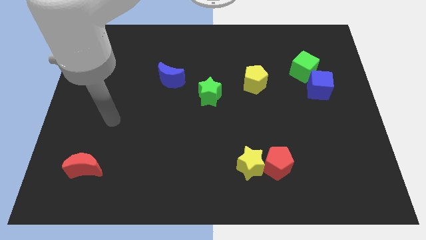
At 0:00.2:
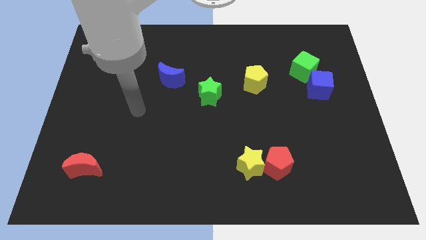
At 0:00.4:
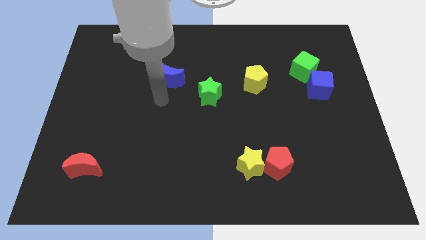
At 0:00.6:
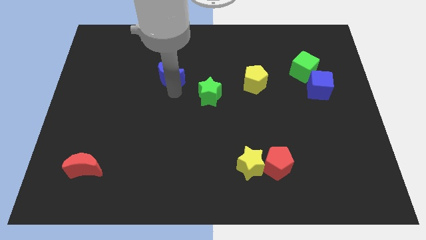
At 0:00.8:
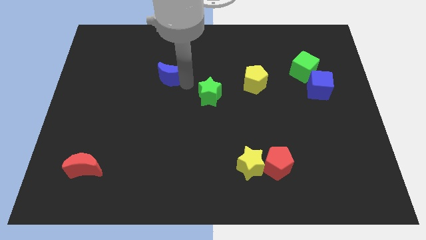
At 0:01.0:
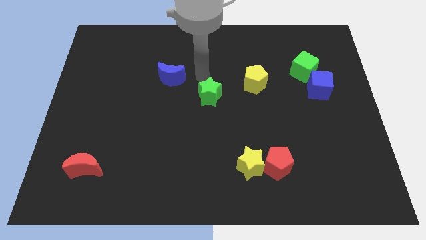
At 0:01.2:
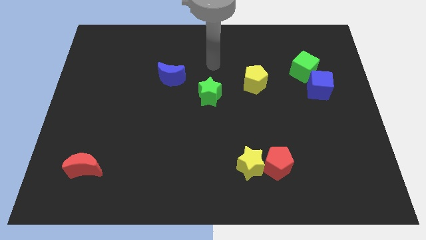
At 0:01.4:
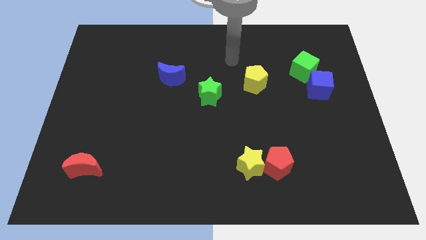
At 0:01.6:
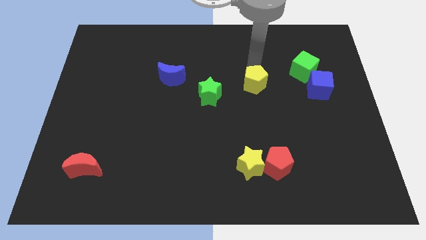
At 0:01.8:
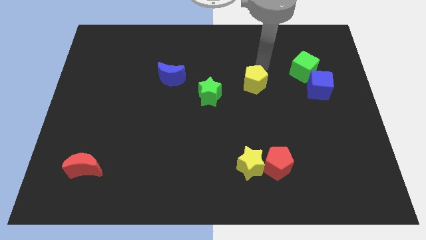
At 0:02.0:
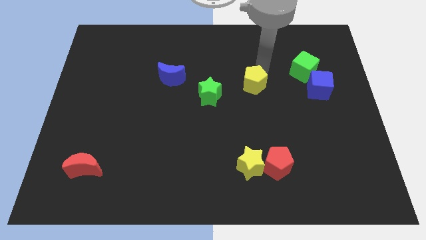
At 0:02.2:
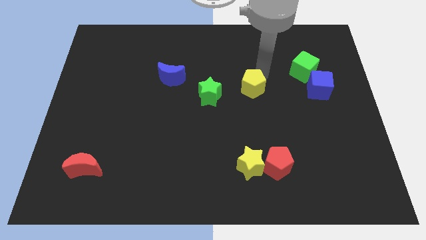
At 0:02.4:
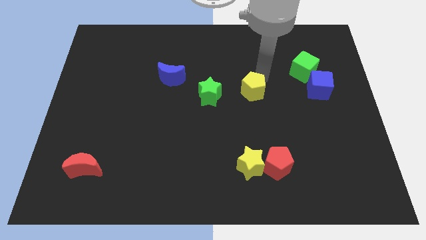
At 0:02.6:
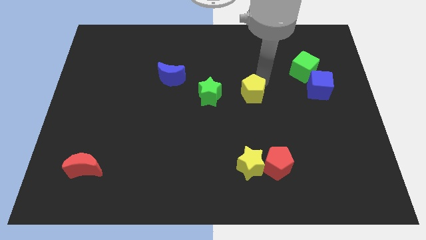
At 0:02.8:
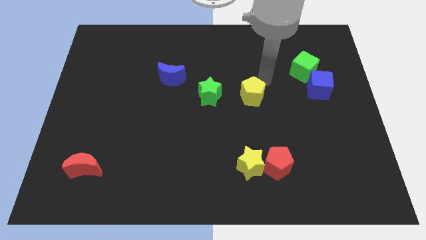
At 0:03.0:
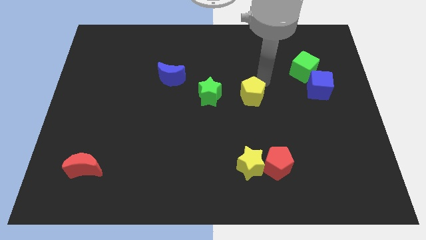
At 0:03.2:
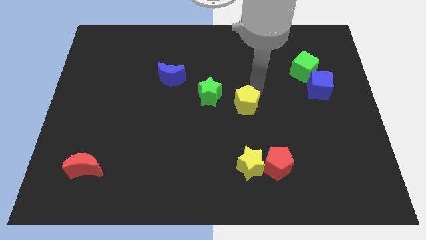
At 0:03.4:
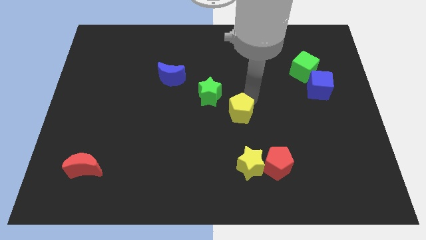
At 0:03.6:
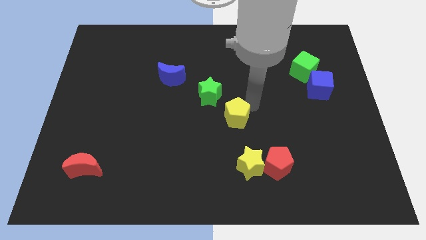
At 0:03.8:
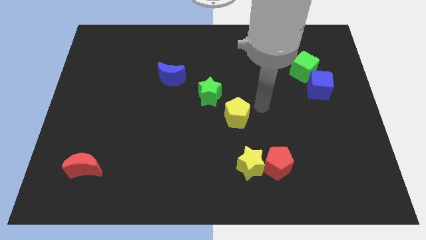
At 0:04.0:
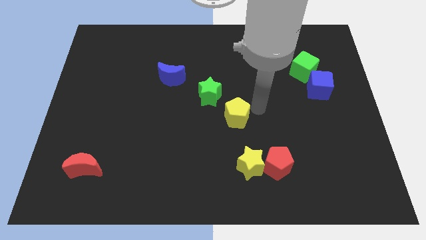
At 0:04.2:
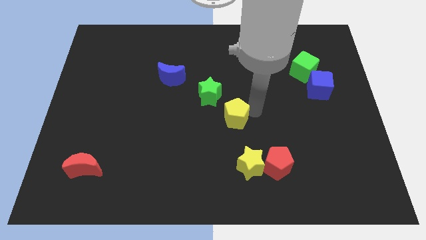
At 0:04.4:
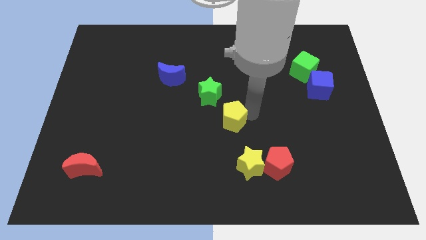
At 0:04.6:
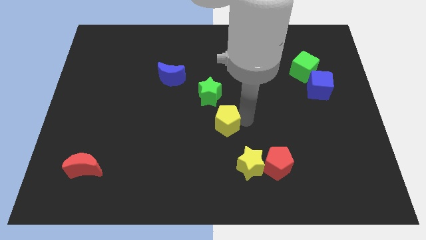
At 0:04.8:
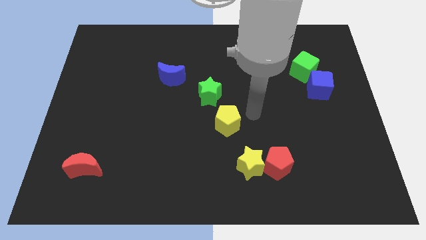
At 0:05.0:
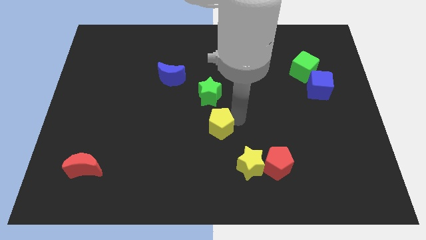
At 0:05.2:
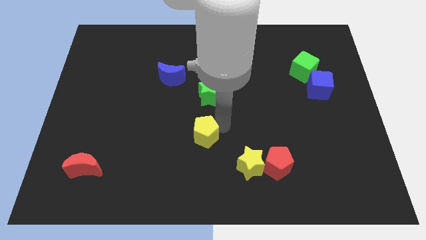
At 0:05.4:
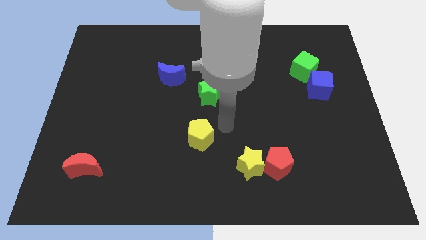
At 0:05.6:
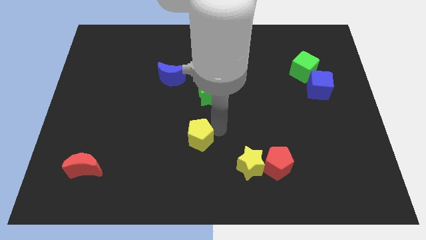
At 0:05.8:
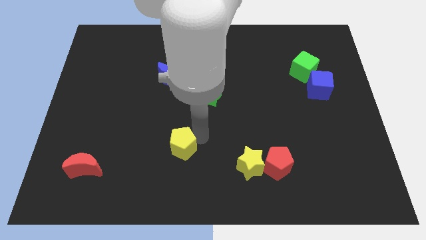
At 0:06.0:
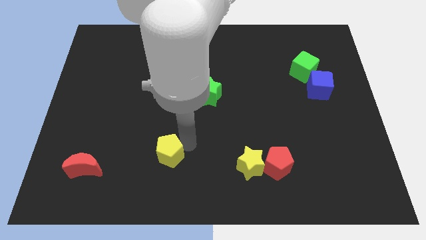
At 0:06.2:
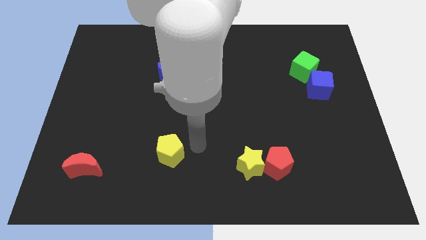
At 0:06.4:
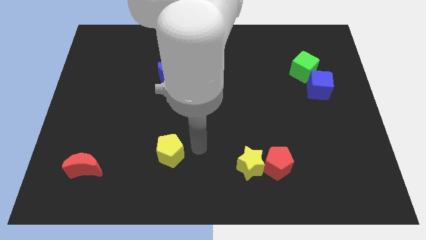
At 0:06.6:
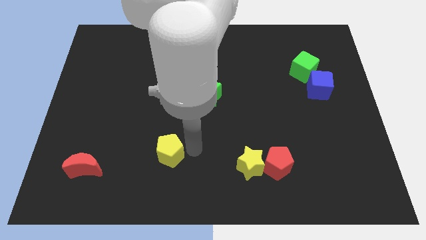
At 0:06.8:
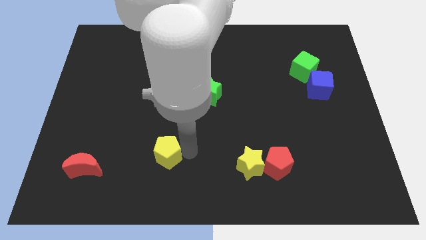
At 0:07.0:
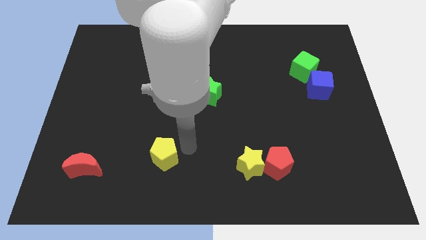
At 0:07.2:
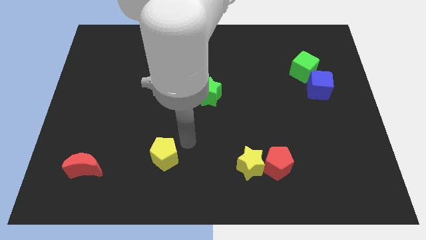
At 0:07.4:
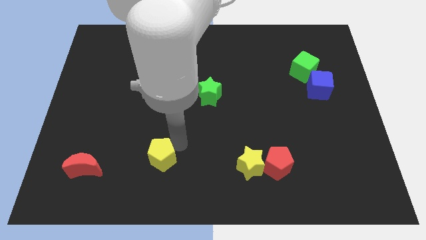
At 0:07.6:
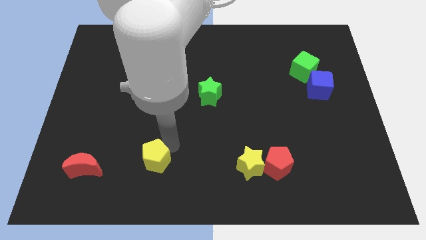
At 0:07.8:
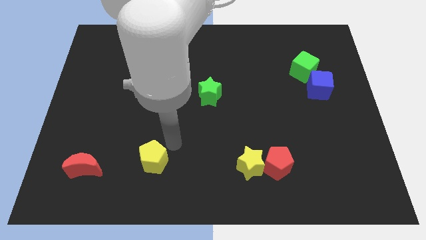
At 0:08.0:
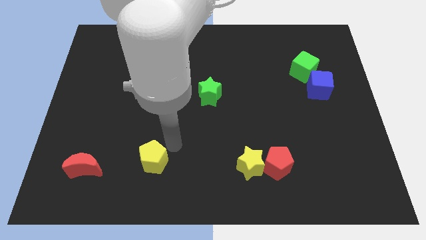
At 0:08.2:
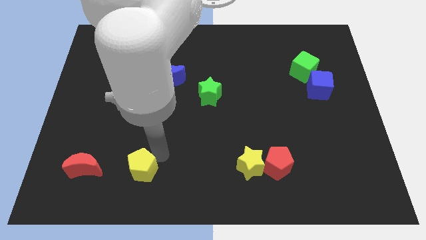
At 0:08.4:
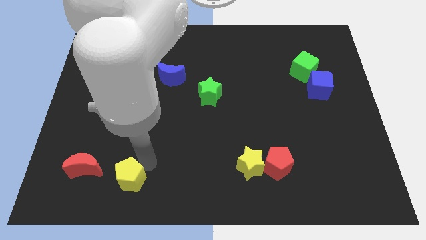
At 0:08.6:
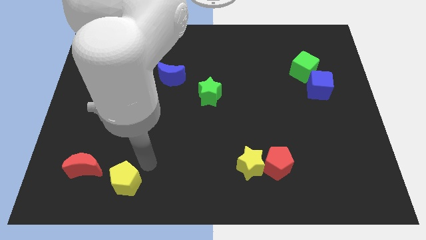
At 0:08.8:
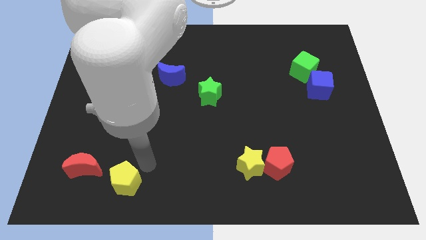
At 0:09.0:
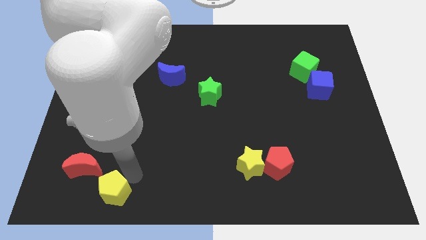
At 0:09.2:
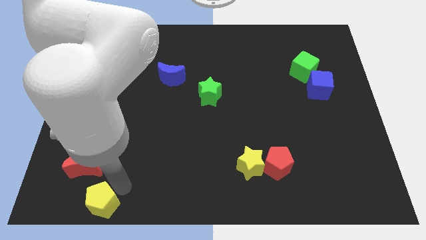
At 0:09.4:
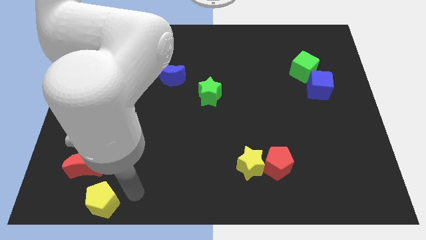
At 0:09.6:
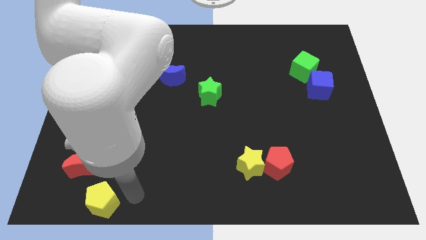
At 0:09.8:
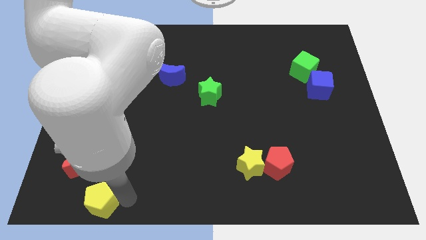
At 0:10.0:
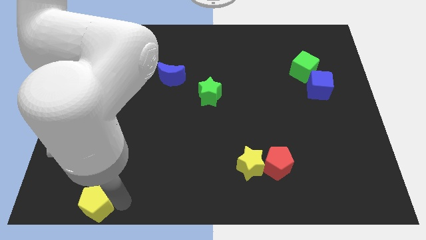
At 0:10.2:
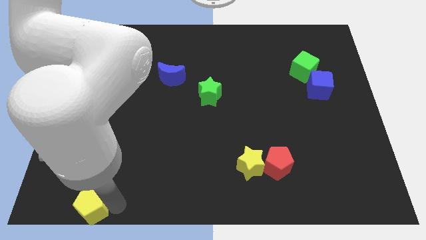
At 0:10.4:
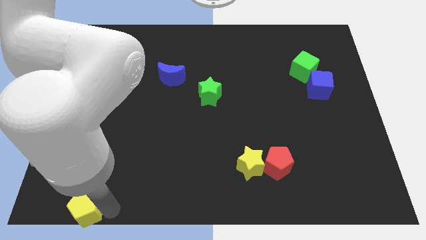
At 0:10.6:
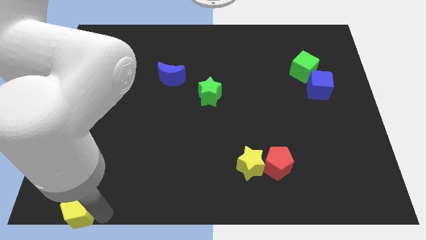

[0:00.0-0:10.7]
slide the yellow pentagon to the bottom left corner

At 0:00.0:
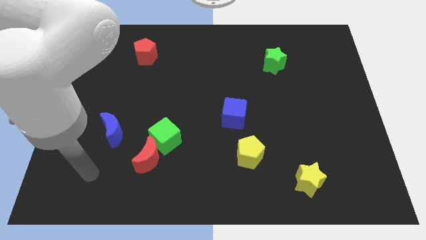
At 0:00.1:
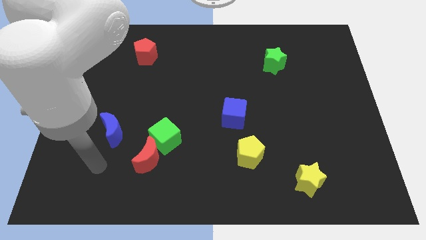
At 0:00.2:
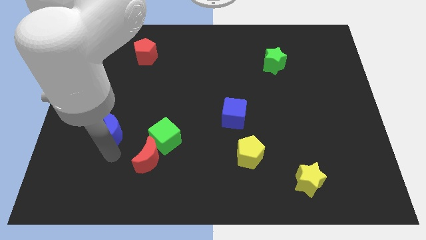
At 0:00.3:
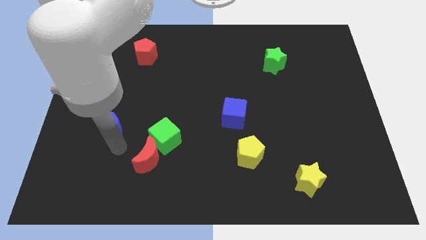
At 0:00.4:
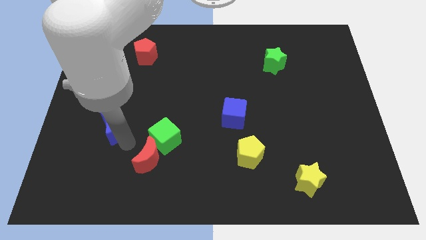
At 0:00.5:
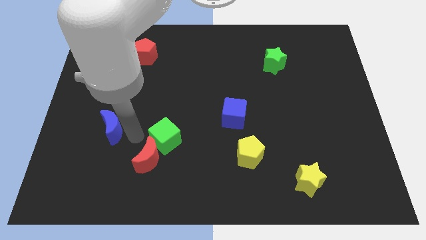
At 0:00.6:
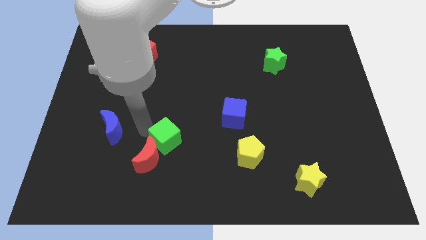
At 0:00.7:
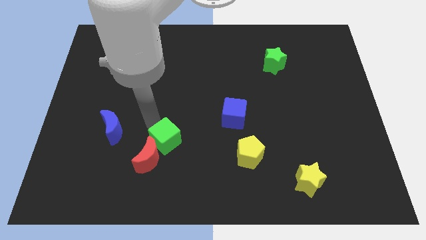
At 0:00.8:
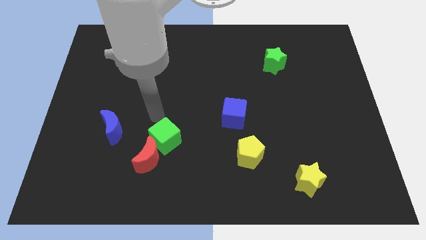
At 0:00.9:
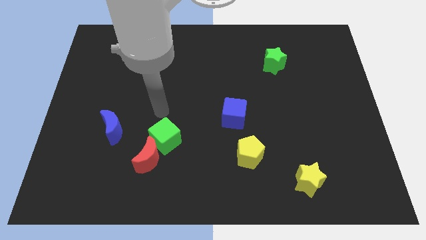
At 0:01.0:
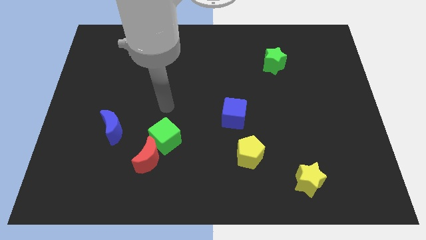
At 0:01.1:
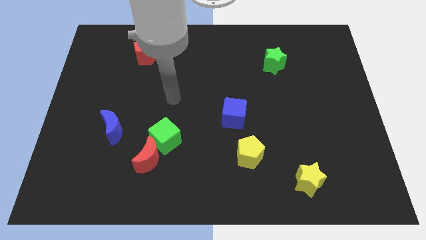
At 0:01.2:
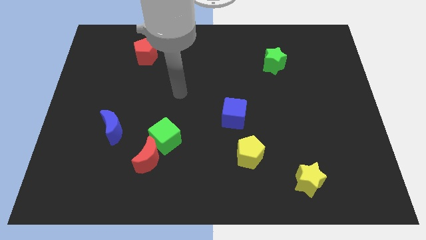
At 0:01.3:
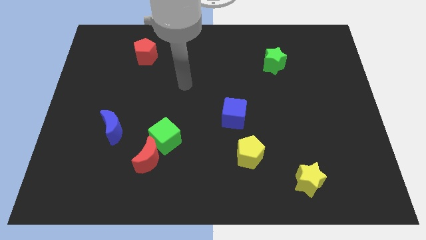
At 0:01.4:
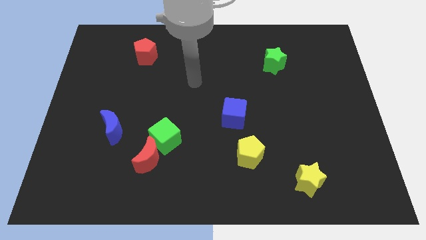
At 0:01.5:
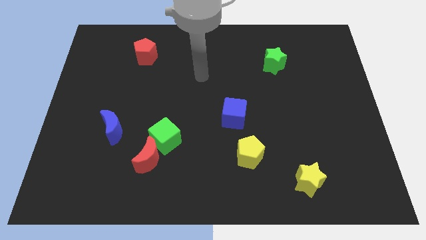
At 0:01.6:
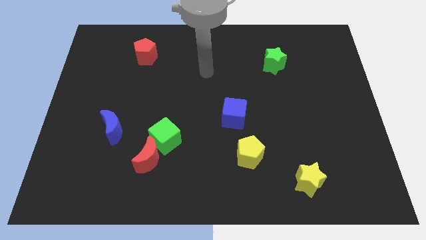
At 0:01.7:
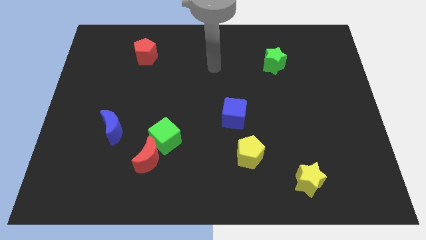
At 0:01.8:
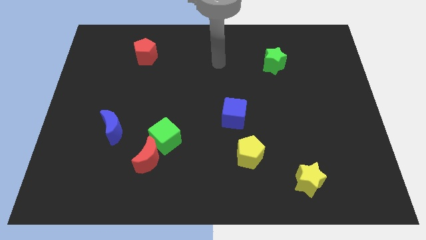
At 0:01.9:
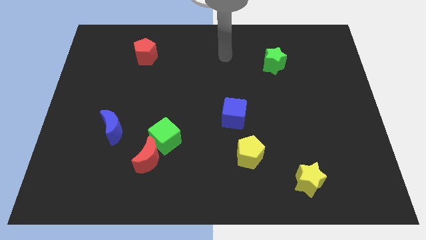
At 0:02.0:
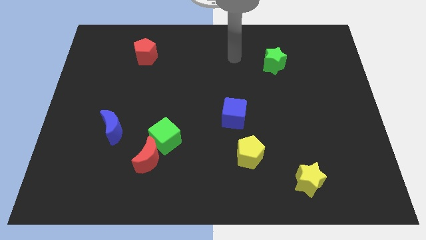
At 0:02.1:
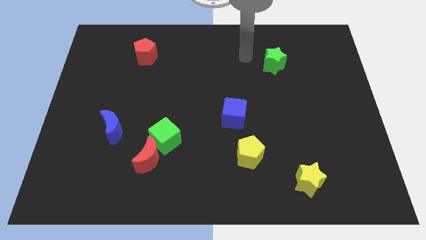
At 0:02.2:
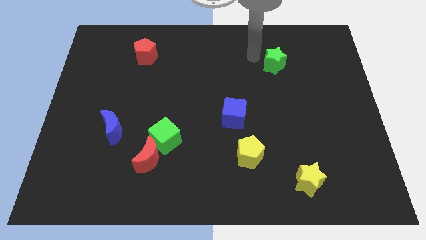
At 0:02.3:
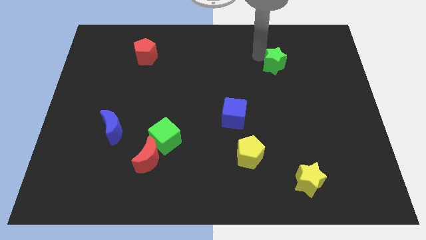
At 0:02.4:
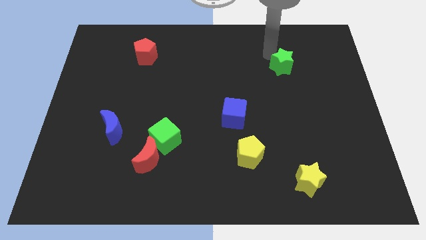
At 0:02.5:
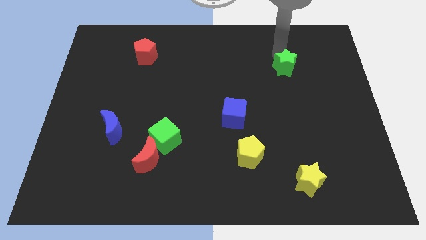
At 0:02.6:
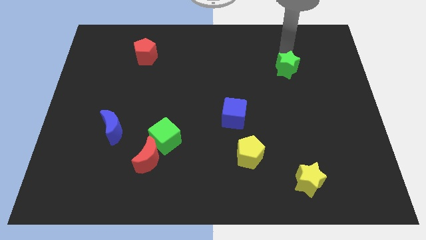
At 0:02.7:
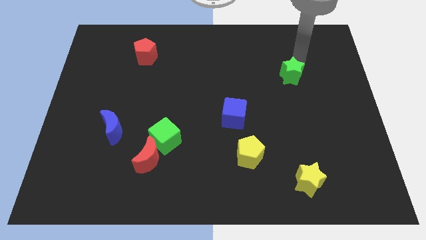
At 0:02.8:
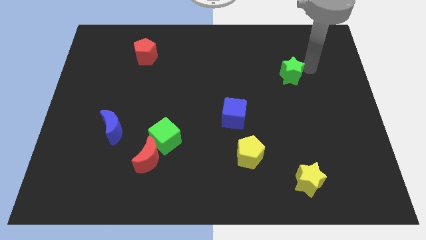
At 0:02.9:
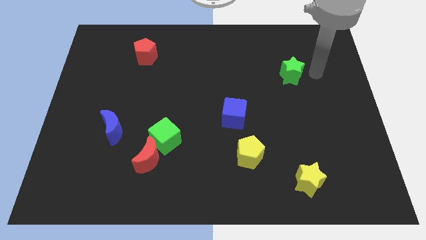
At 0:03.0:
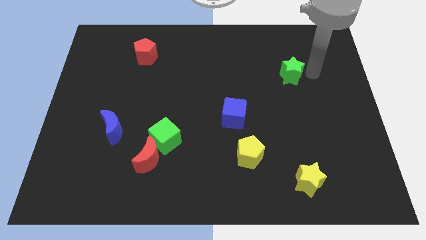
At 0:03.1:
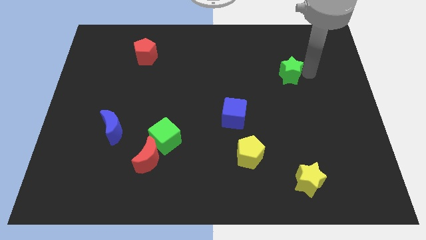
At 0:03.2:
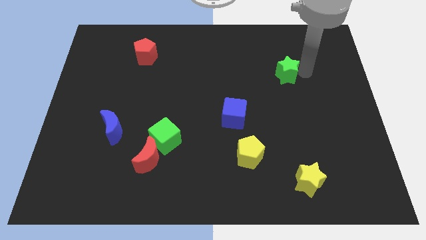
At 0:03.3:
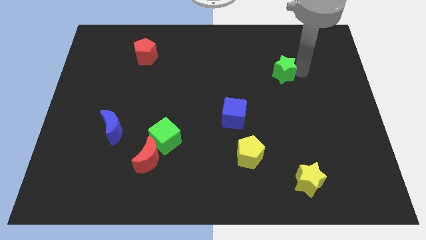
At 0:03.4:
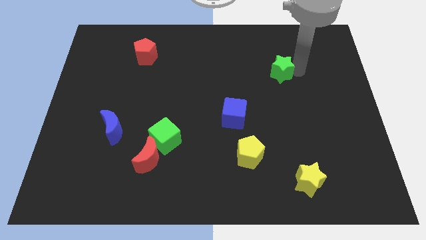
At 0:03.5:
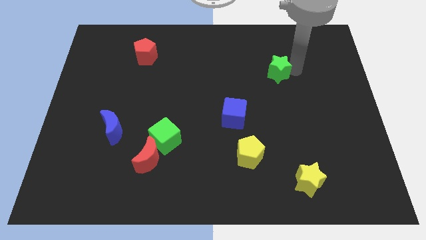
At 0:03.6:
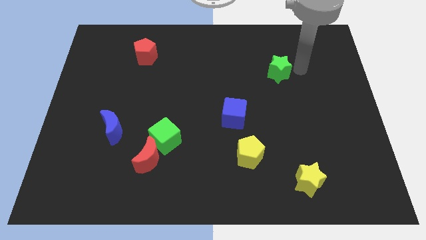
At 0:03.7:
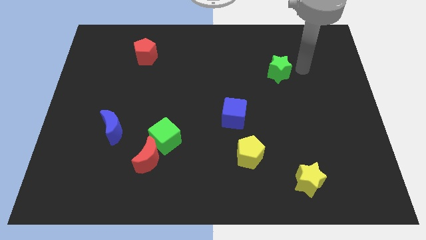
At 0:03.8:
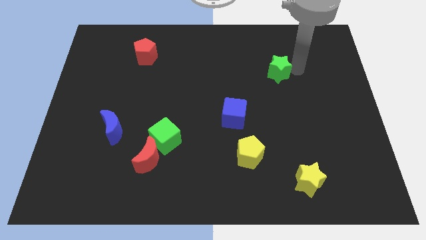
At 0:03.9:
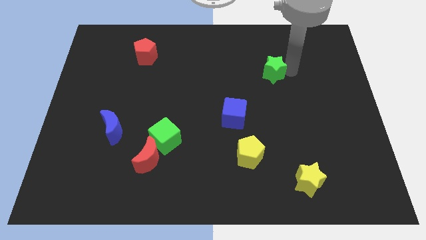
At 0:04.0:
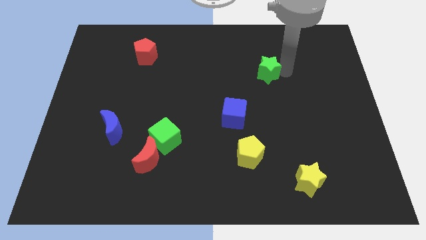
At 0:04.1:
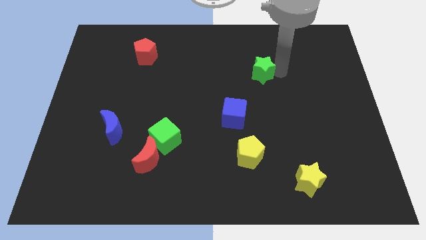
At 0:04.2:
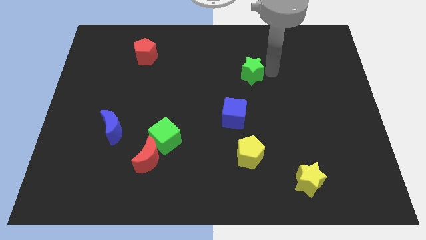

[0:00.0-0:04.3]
slide the green star to the middle of the board
